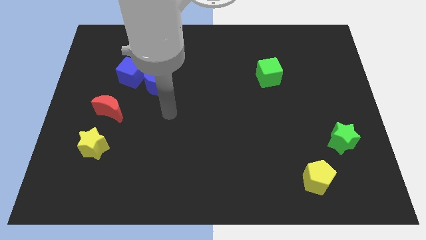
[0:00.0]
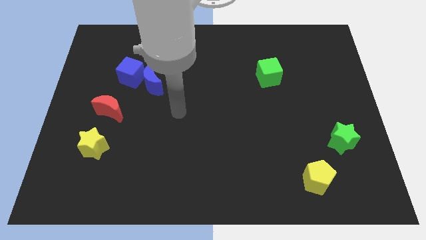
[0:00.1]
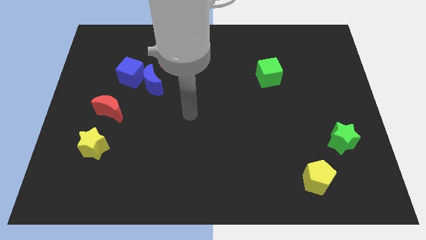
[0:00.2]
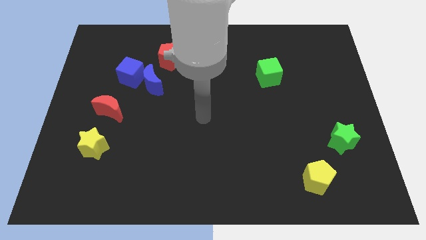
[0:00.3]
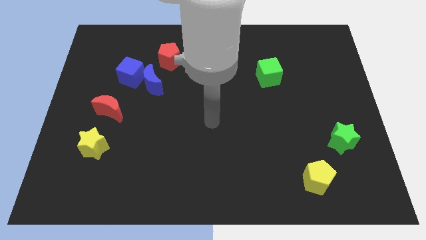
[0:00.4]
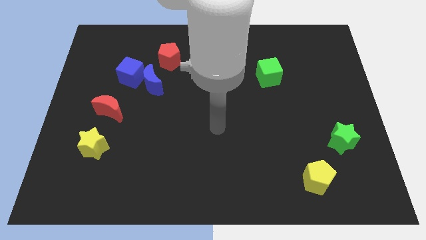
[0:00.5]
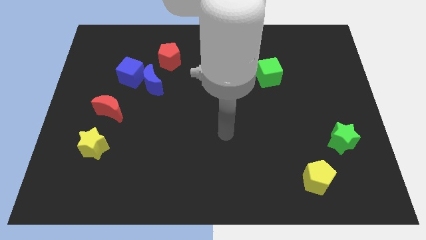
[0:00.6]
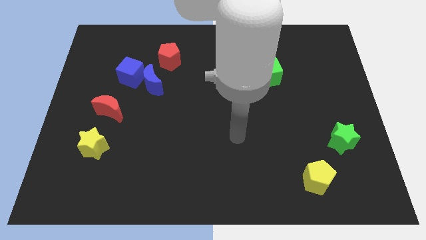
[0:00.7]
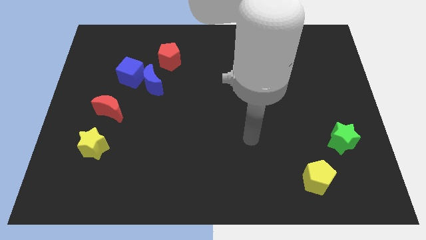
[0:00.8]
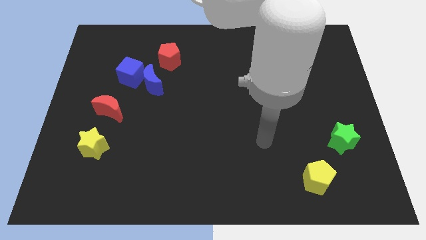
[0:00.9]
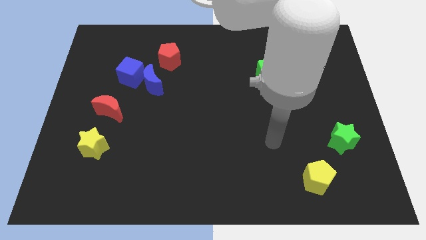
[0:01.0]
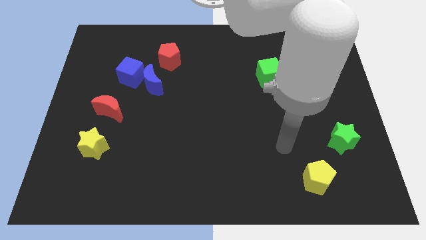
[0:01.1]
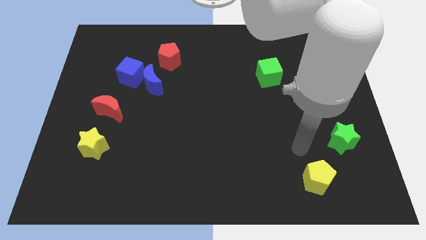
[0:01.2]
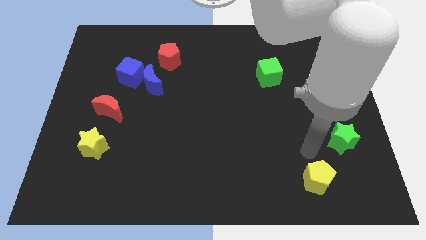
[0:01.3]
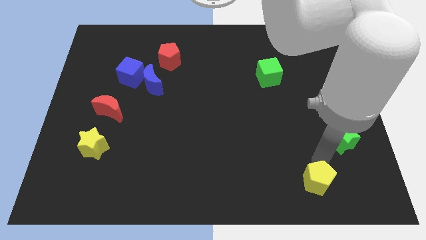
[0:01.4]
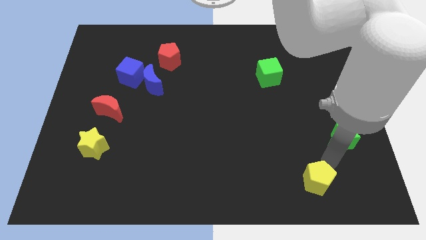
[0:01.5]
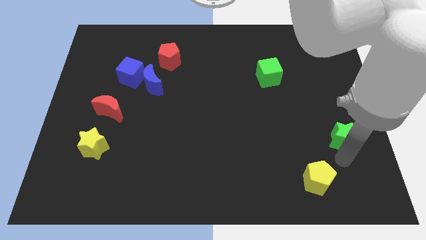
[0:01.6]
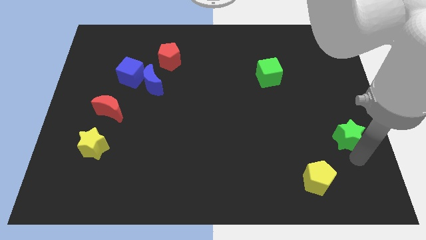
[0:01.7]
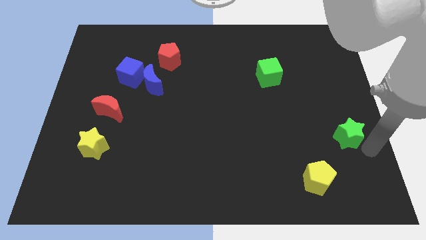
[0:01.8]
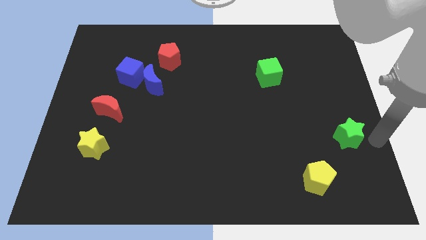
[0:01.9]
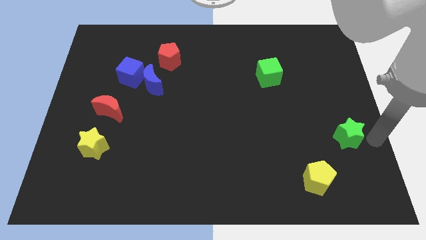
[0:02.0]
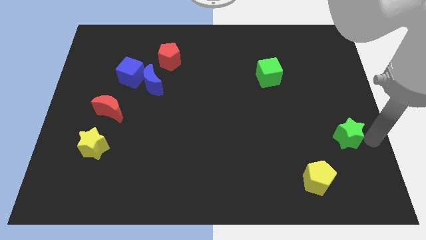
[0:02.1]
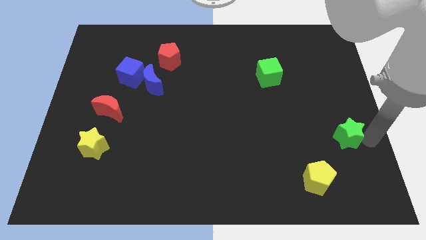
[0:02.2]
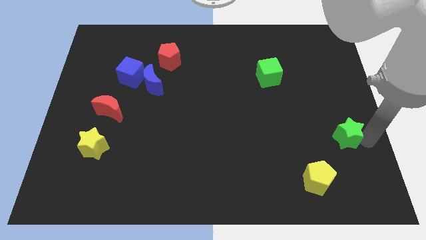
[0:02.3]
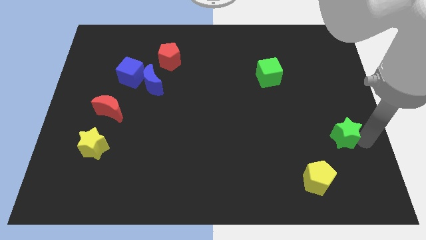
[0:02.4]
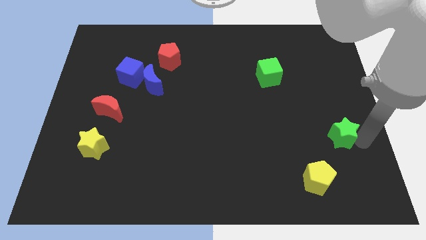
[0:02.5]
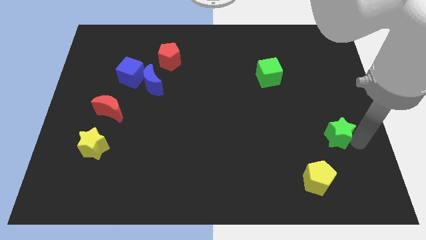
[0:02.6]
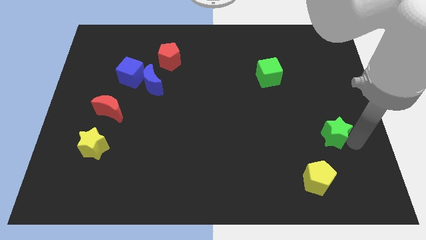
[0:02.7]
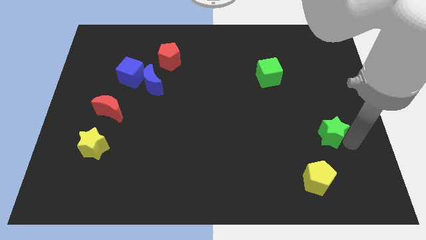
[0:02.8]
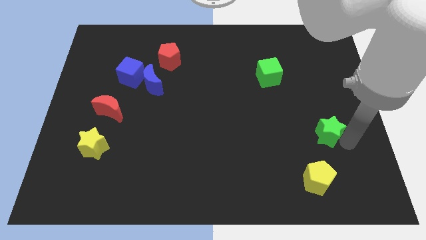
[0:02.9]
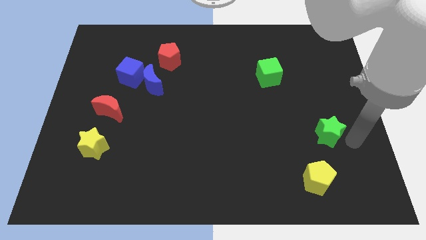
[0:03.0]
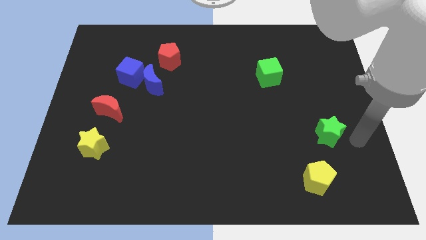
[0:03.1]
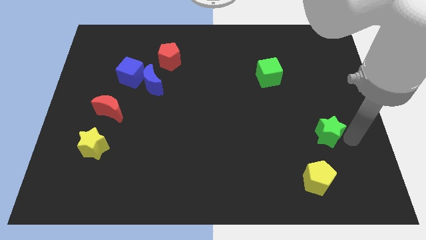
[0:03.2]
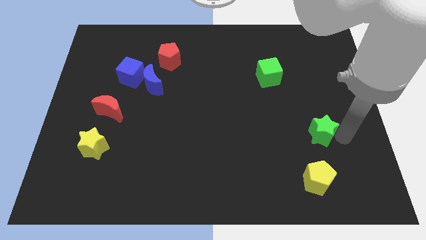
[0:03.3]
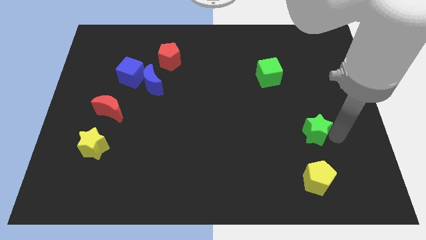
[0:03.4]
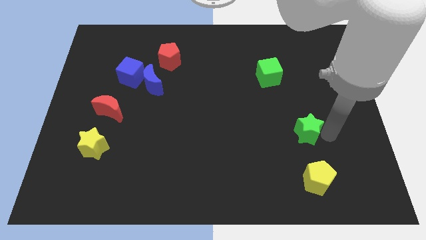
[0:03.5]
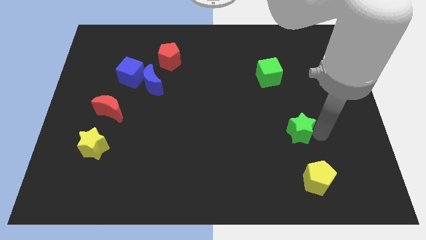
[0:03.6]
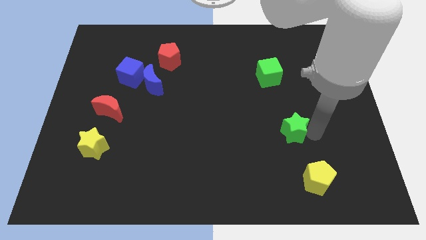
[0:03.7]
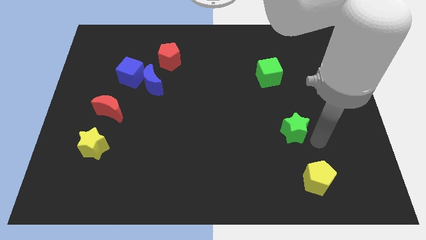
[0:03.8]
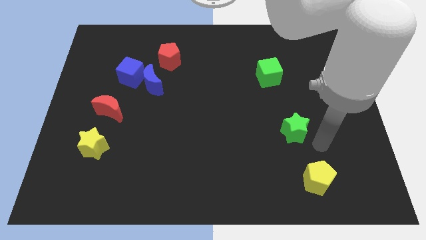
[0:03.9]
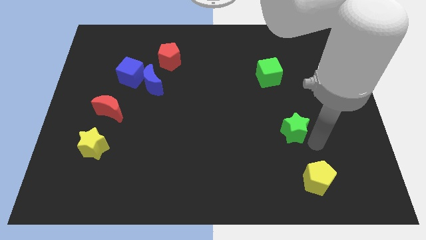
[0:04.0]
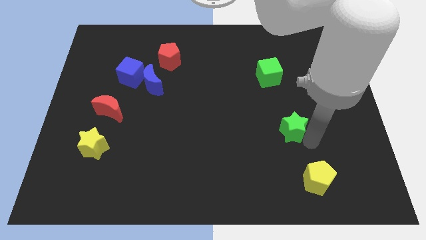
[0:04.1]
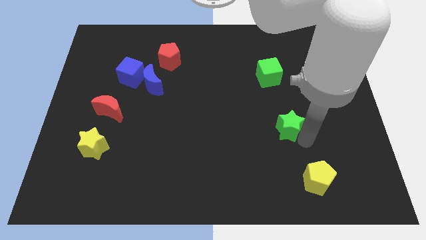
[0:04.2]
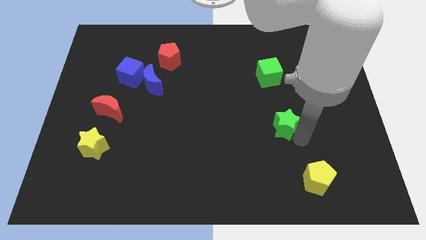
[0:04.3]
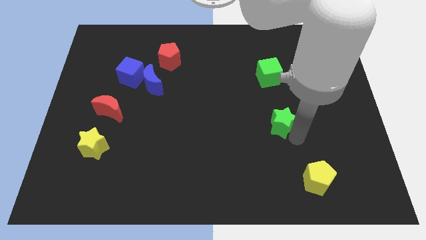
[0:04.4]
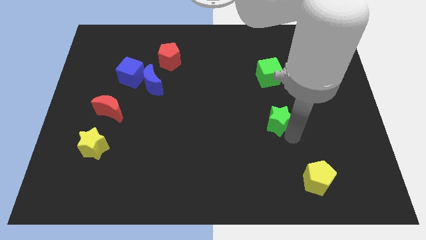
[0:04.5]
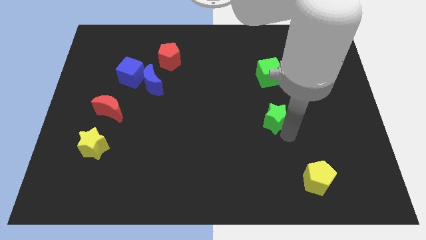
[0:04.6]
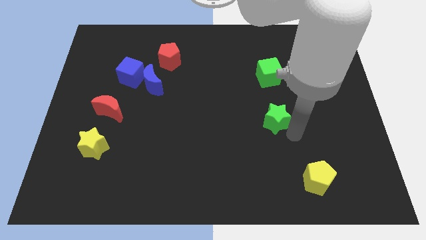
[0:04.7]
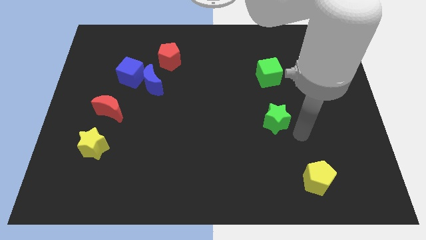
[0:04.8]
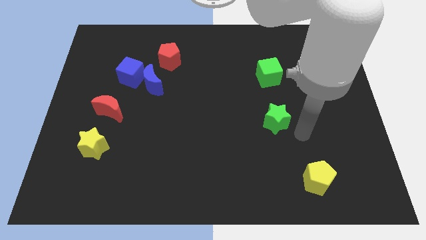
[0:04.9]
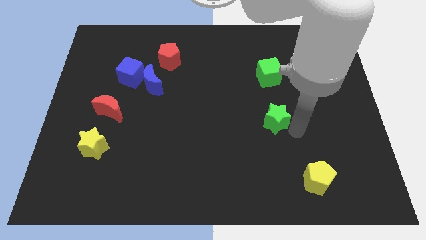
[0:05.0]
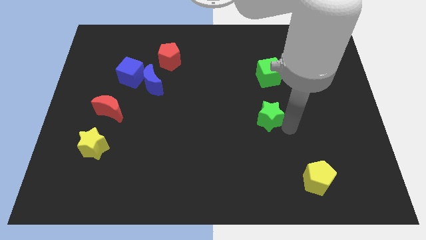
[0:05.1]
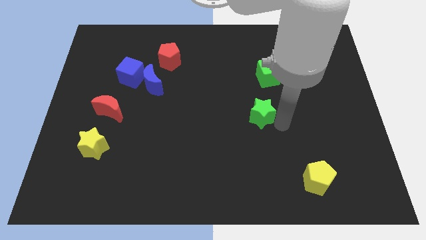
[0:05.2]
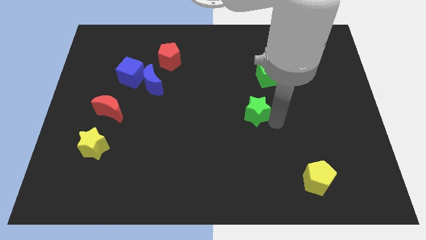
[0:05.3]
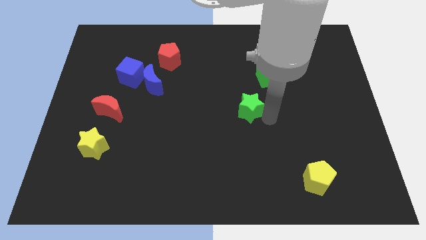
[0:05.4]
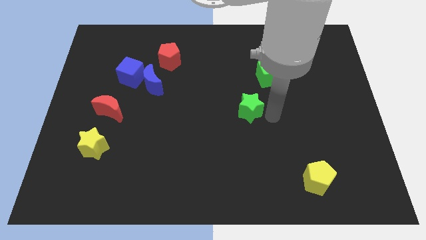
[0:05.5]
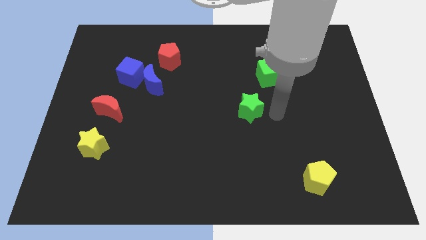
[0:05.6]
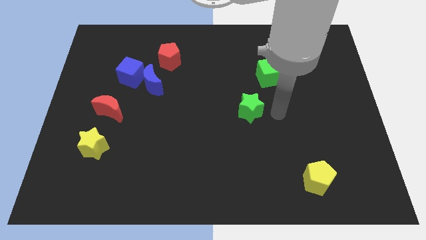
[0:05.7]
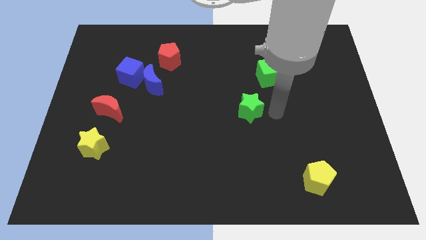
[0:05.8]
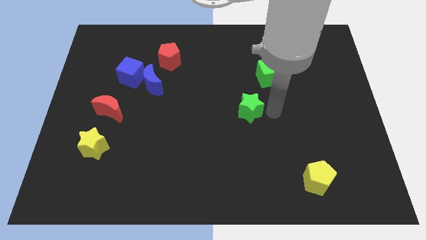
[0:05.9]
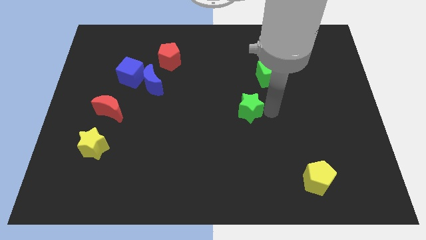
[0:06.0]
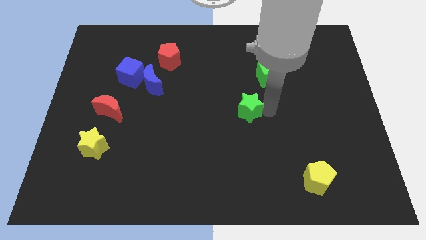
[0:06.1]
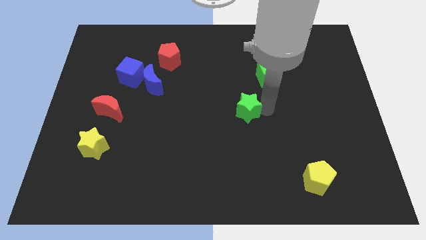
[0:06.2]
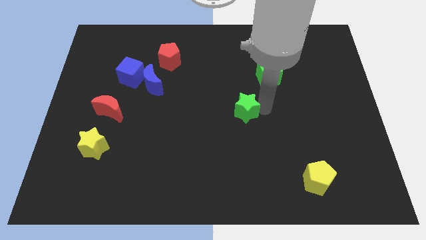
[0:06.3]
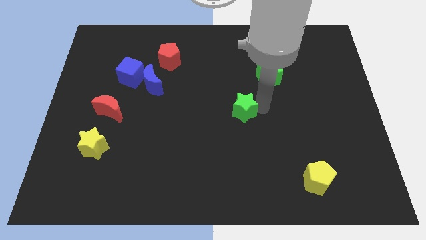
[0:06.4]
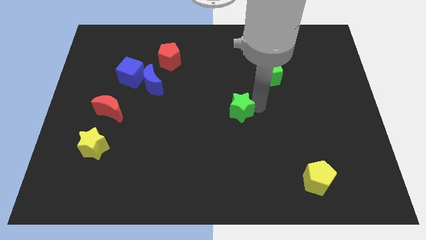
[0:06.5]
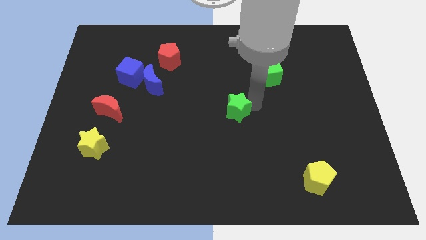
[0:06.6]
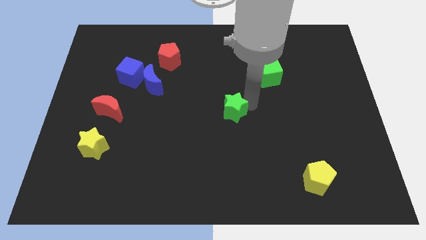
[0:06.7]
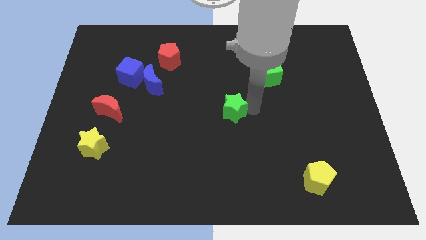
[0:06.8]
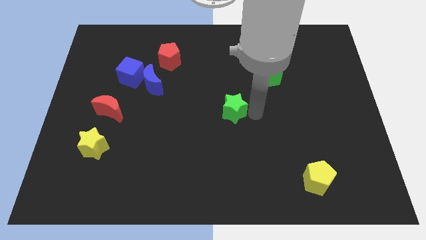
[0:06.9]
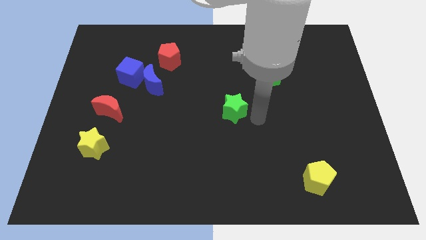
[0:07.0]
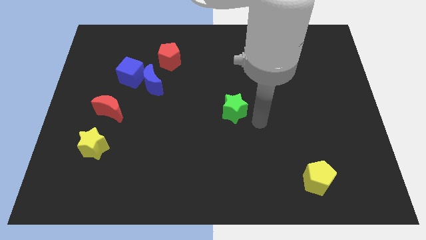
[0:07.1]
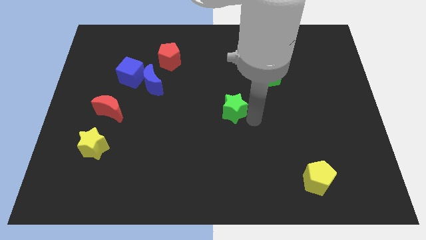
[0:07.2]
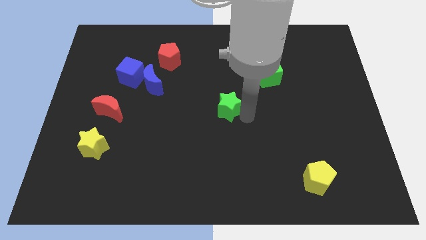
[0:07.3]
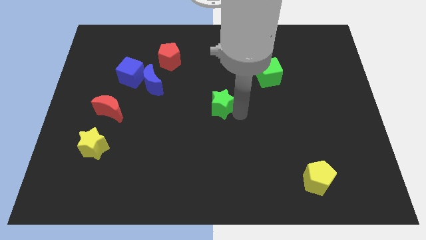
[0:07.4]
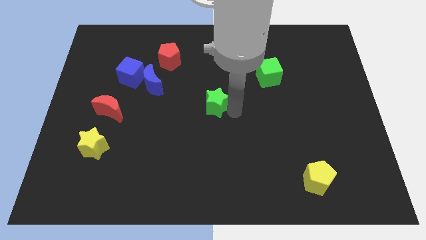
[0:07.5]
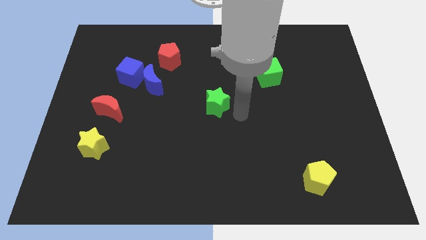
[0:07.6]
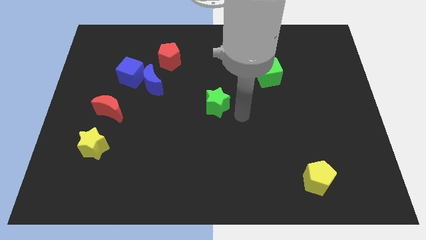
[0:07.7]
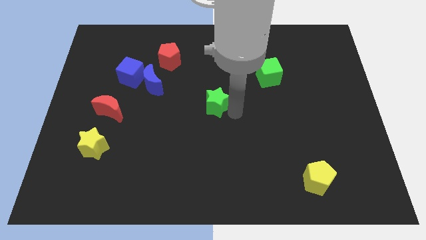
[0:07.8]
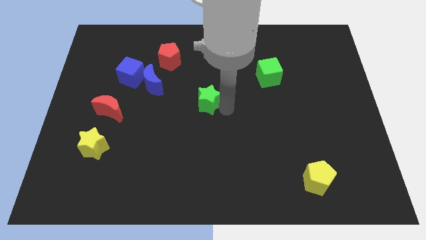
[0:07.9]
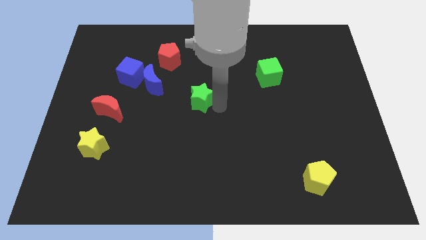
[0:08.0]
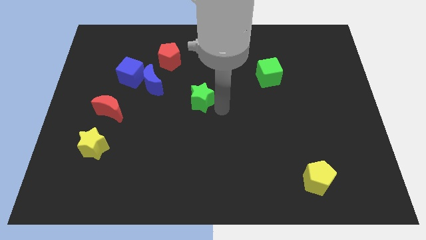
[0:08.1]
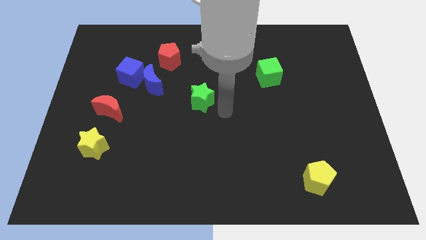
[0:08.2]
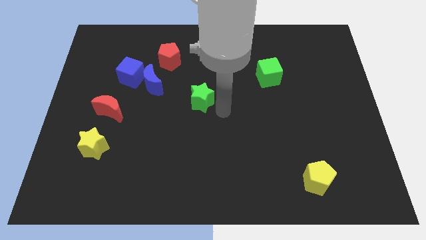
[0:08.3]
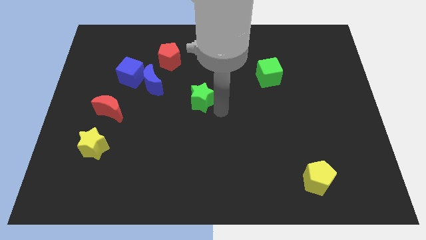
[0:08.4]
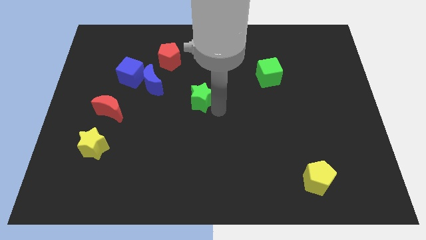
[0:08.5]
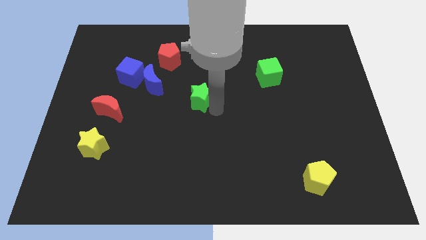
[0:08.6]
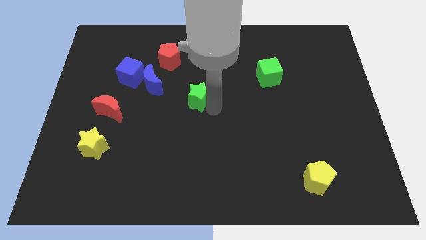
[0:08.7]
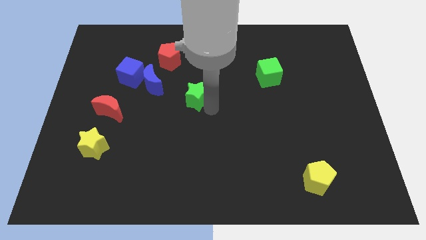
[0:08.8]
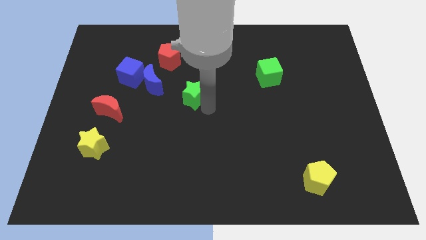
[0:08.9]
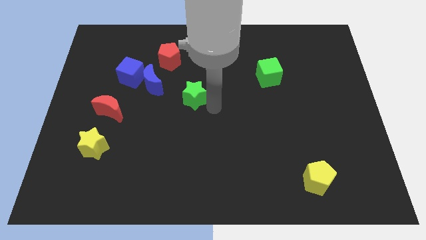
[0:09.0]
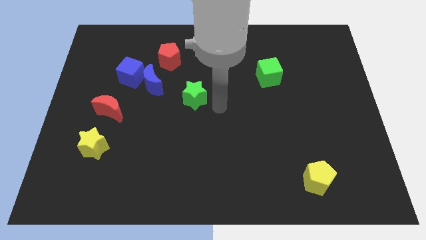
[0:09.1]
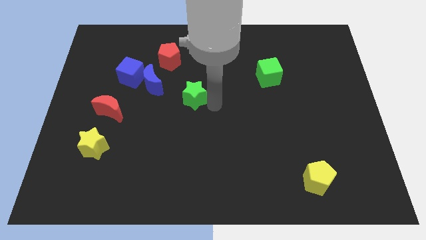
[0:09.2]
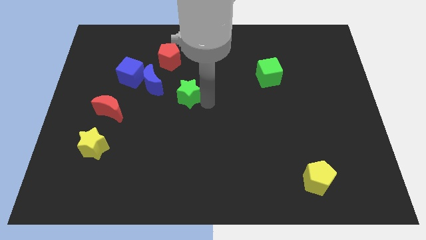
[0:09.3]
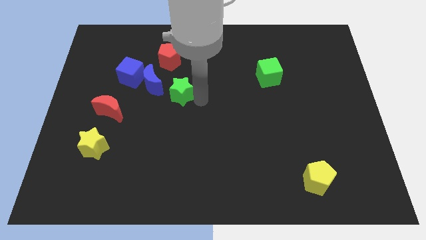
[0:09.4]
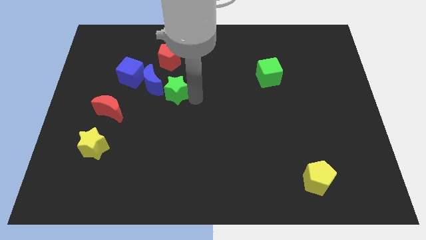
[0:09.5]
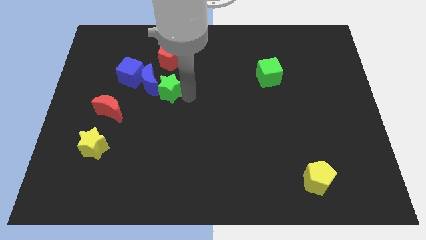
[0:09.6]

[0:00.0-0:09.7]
slide the green star next to the blue moon
